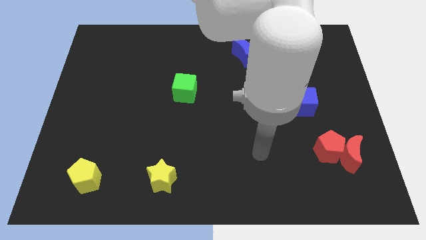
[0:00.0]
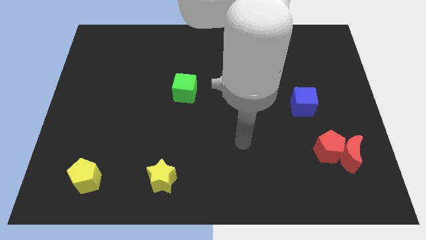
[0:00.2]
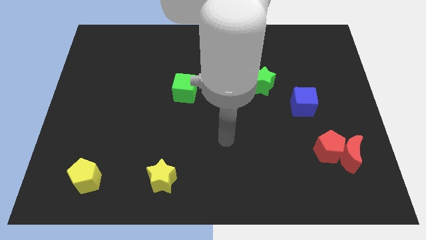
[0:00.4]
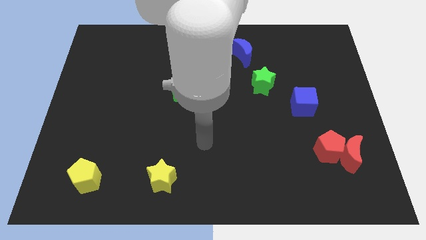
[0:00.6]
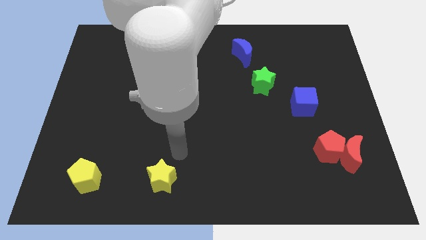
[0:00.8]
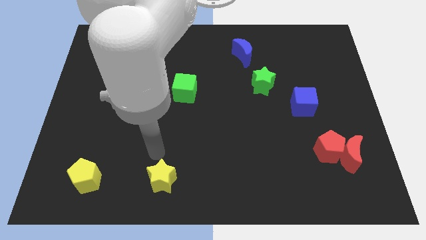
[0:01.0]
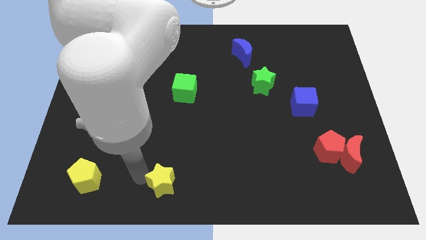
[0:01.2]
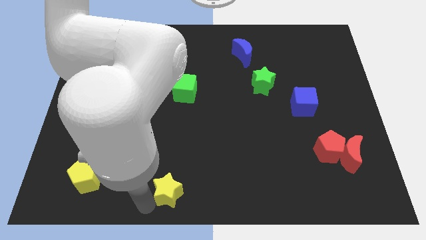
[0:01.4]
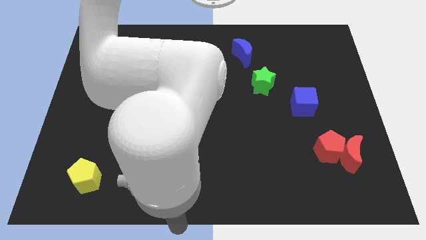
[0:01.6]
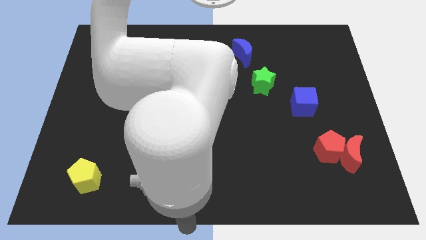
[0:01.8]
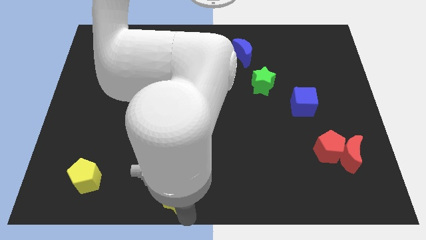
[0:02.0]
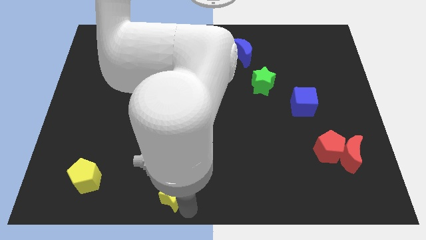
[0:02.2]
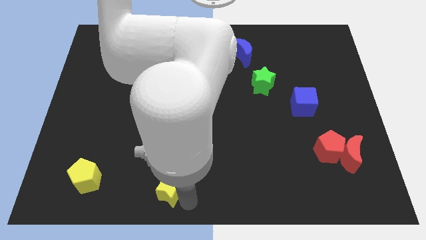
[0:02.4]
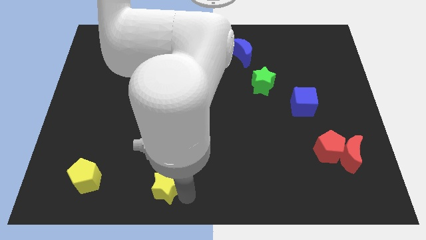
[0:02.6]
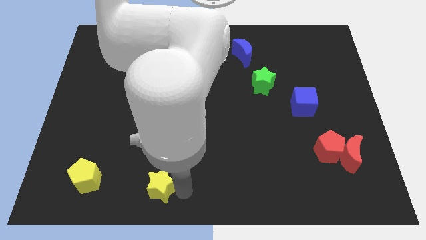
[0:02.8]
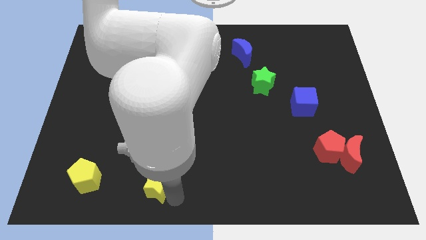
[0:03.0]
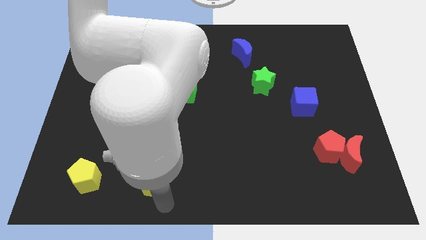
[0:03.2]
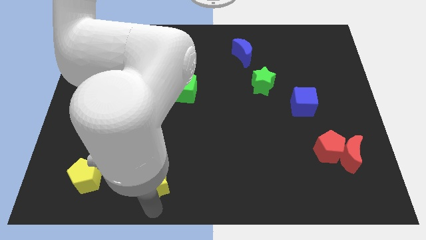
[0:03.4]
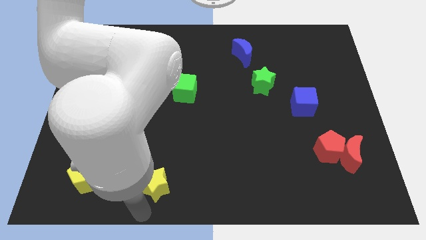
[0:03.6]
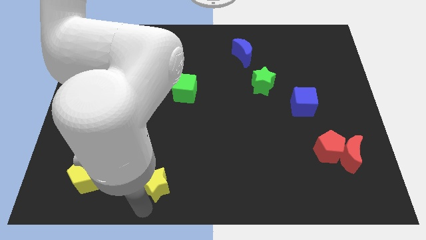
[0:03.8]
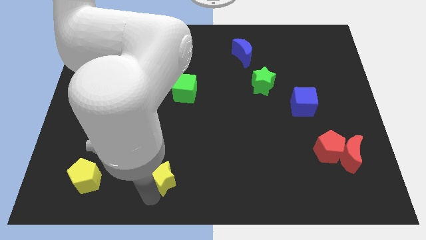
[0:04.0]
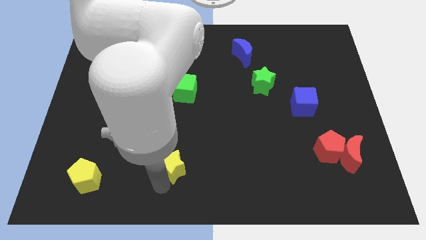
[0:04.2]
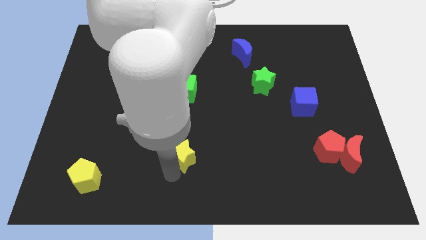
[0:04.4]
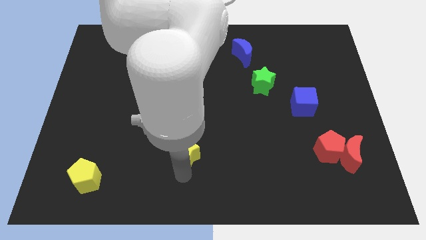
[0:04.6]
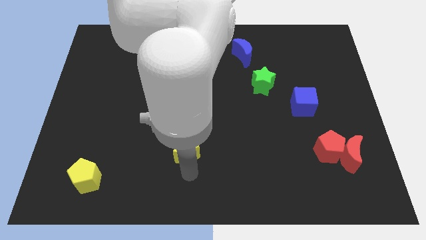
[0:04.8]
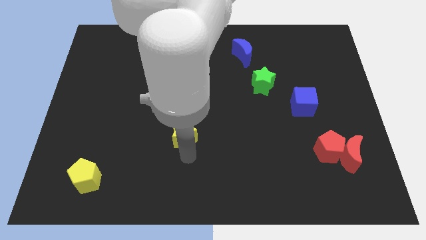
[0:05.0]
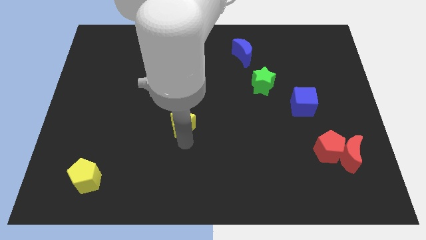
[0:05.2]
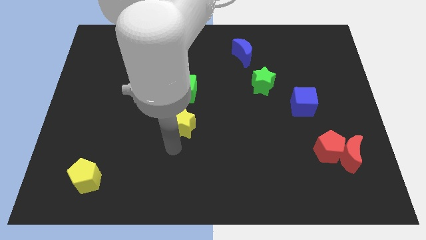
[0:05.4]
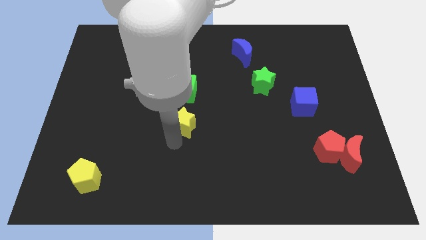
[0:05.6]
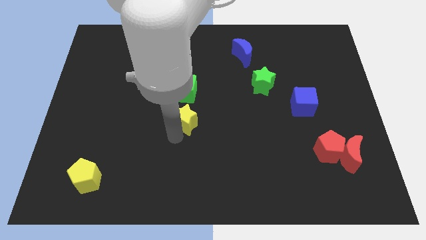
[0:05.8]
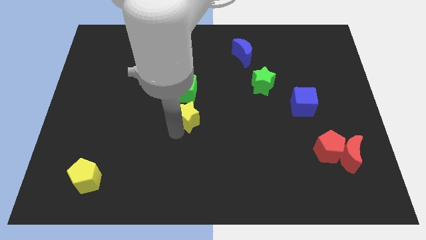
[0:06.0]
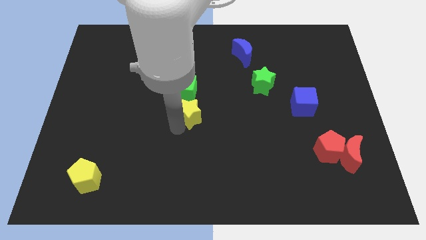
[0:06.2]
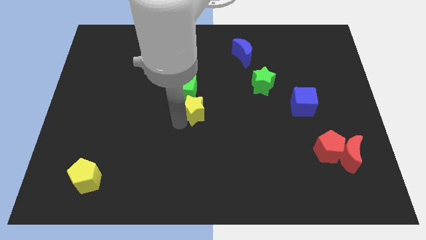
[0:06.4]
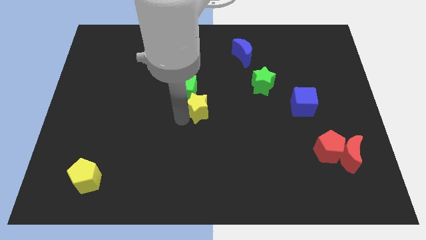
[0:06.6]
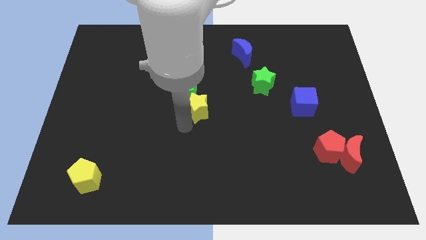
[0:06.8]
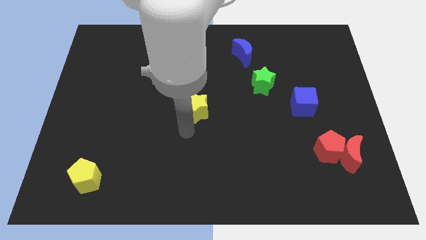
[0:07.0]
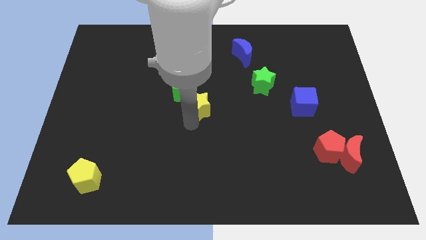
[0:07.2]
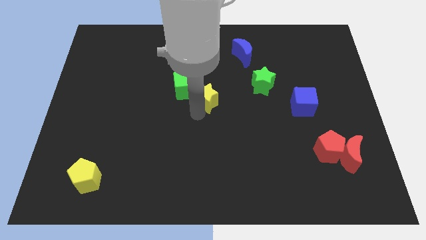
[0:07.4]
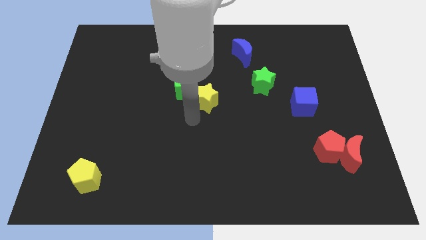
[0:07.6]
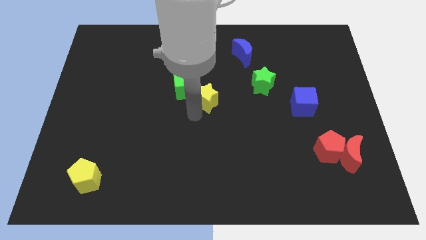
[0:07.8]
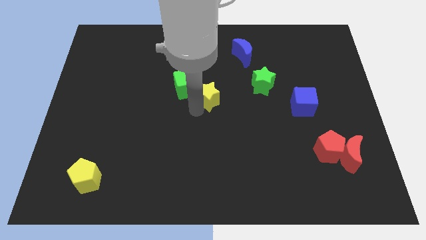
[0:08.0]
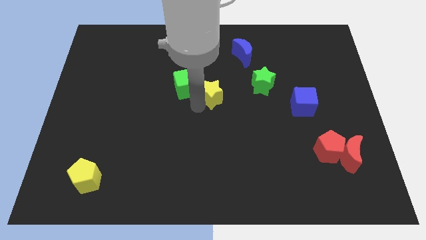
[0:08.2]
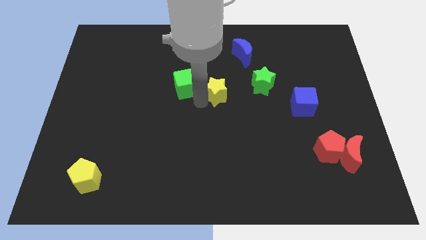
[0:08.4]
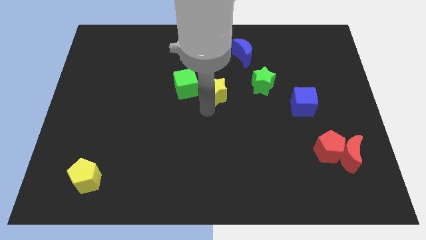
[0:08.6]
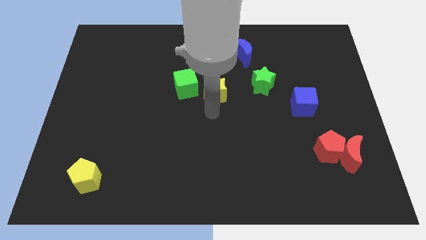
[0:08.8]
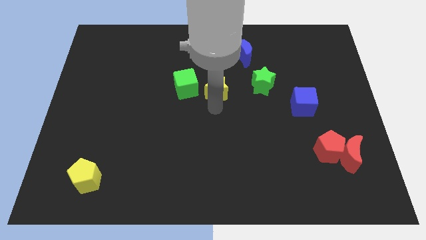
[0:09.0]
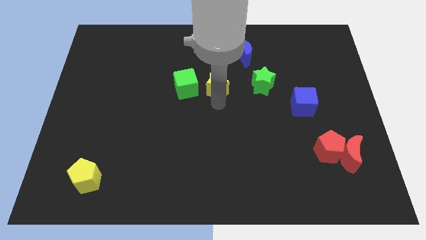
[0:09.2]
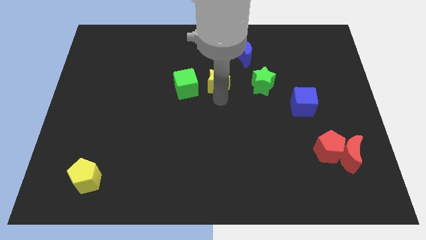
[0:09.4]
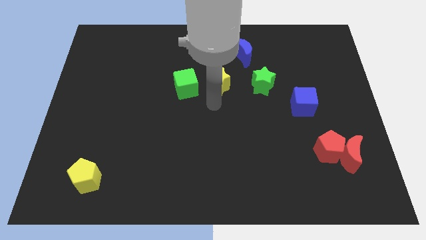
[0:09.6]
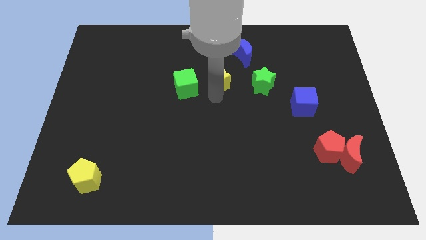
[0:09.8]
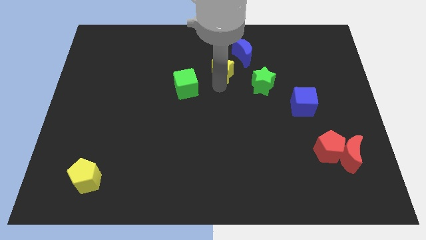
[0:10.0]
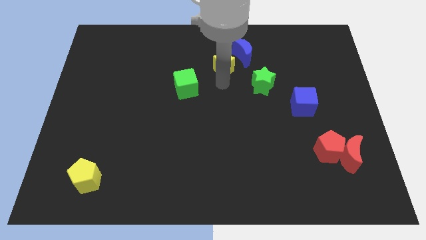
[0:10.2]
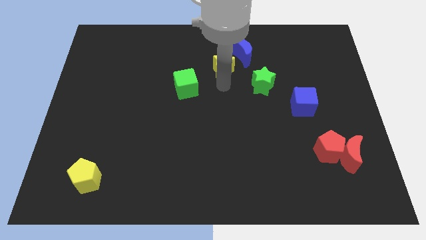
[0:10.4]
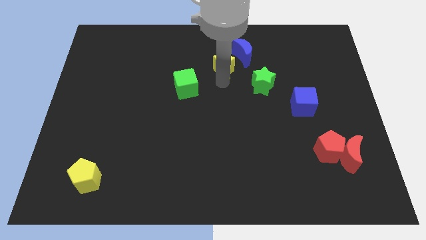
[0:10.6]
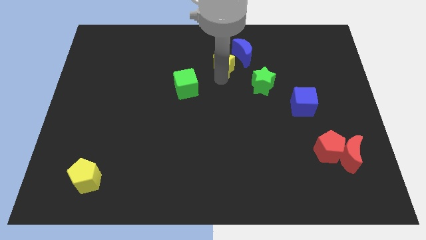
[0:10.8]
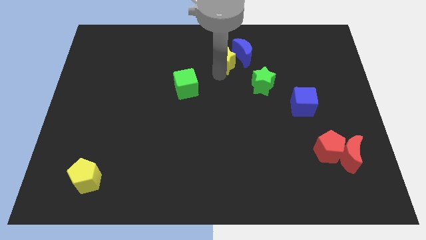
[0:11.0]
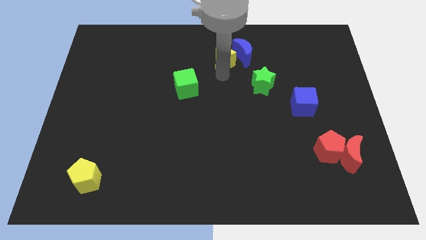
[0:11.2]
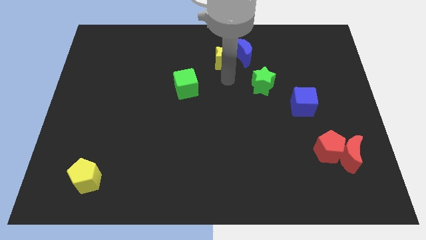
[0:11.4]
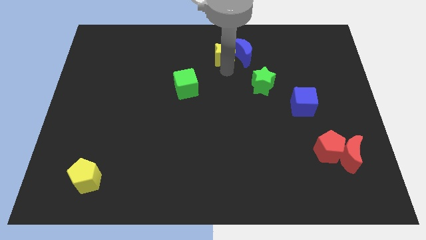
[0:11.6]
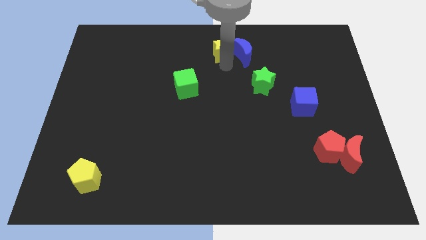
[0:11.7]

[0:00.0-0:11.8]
slide the yellow star to the top

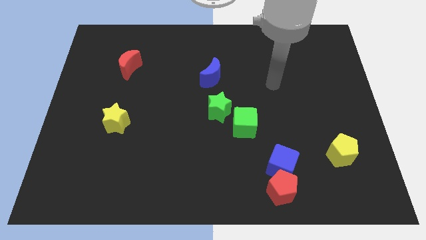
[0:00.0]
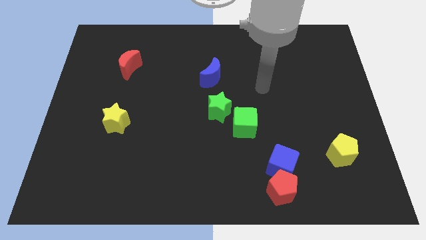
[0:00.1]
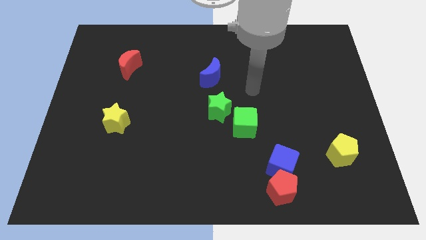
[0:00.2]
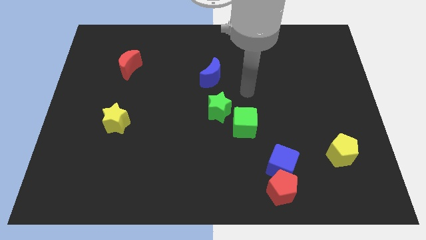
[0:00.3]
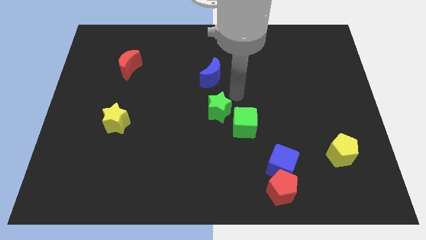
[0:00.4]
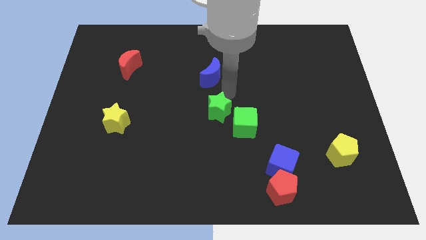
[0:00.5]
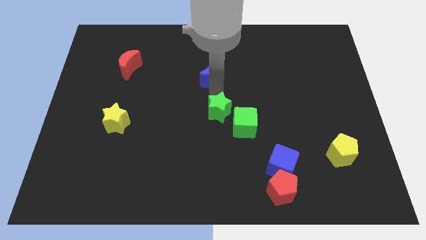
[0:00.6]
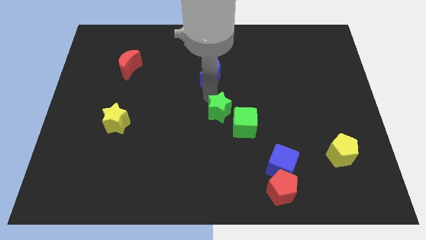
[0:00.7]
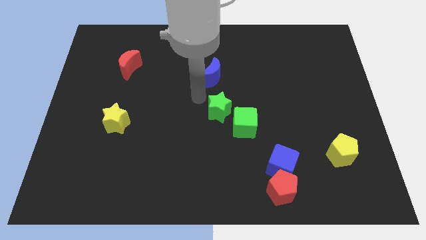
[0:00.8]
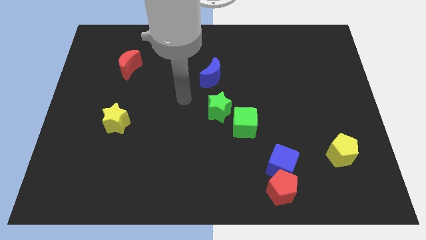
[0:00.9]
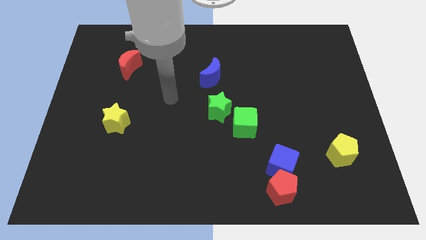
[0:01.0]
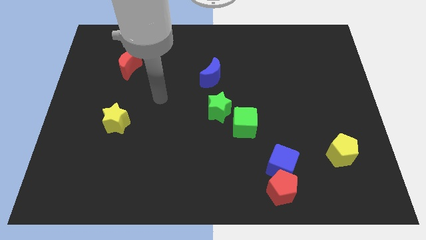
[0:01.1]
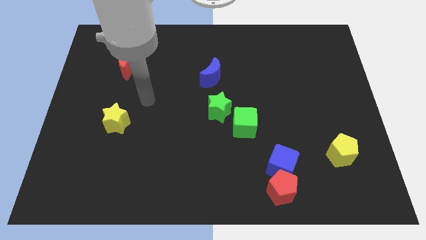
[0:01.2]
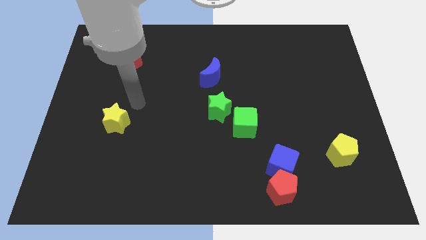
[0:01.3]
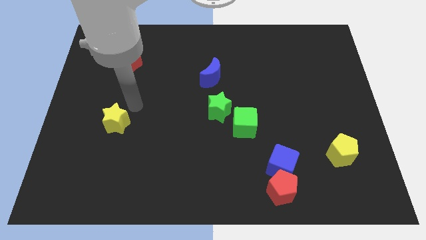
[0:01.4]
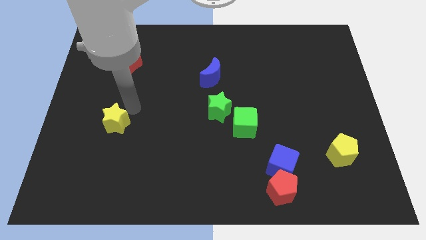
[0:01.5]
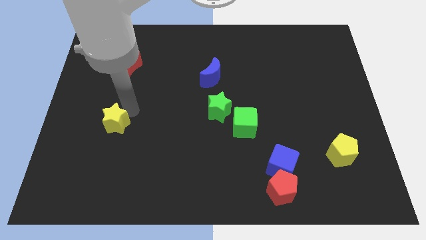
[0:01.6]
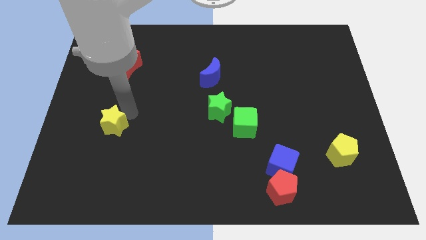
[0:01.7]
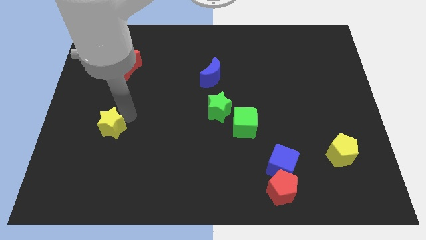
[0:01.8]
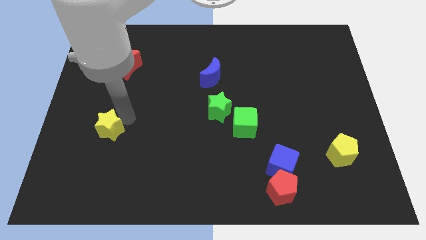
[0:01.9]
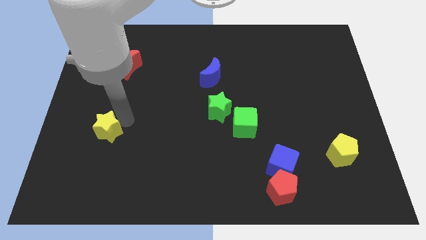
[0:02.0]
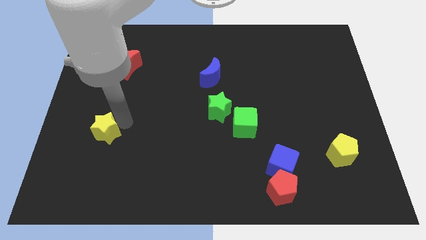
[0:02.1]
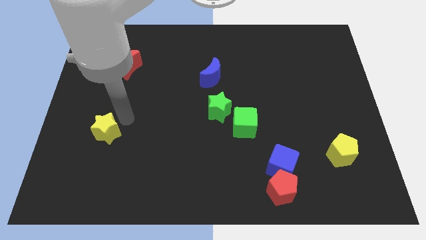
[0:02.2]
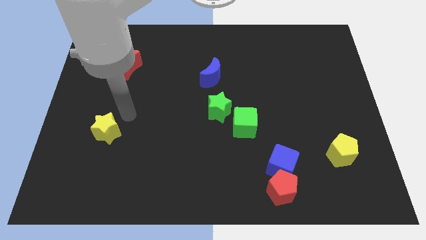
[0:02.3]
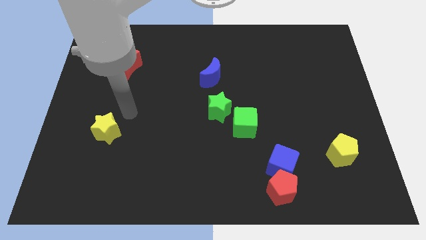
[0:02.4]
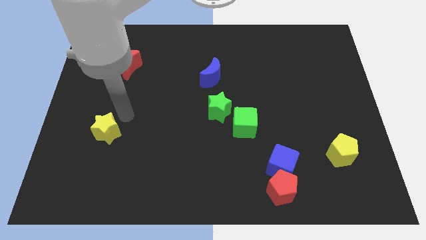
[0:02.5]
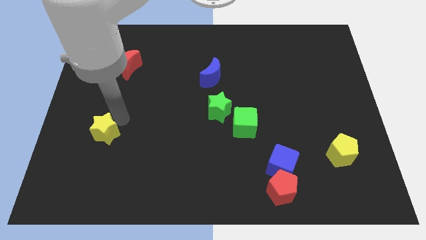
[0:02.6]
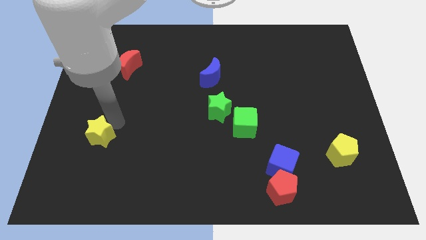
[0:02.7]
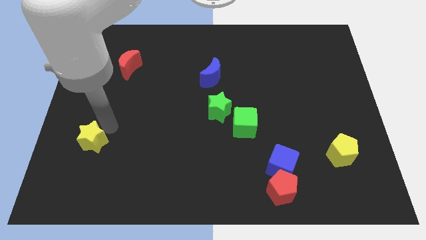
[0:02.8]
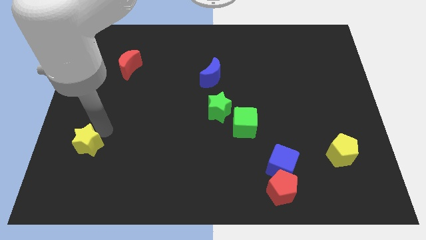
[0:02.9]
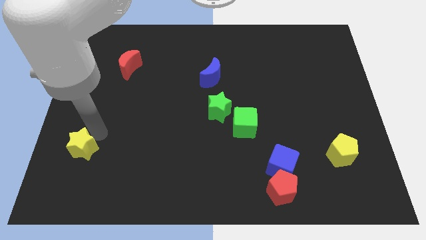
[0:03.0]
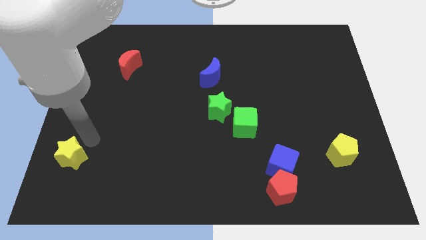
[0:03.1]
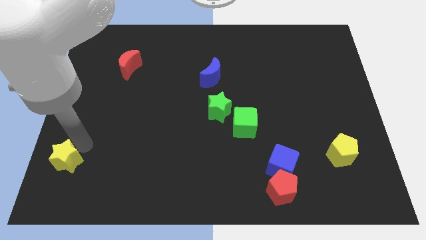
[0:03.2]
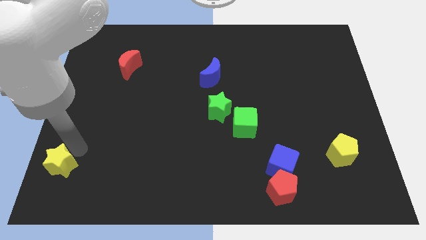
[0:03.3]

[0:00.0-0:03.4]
slide the yellow star to the bottom left
